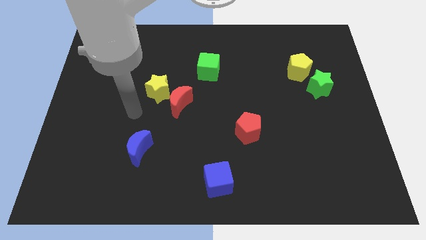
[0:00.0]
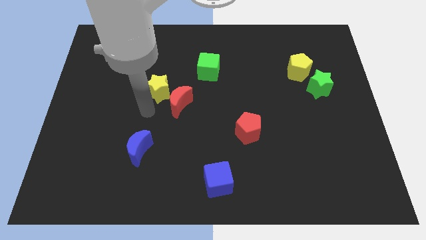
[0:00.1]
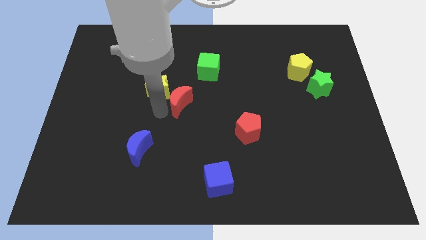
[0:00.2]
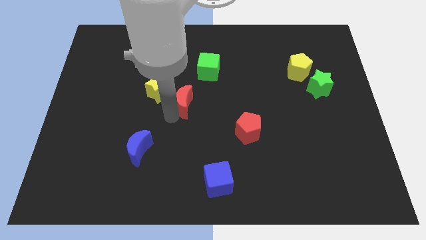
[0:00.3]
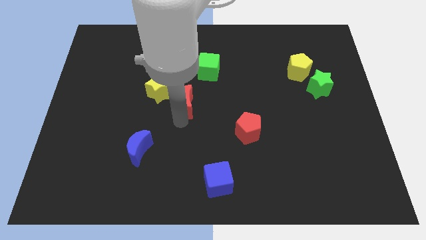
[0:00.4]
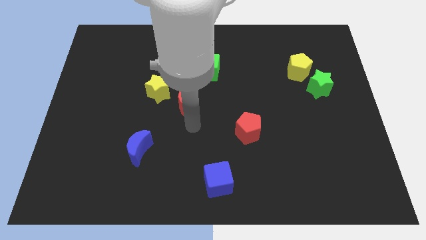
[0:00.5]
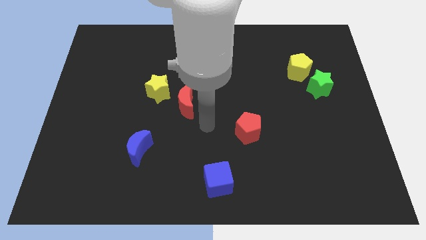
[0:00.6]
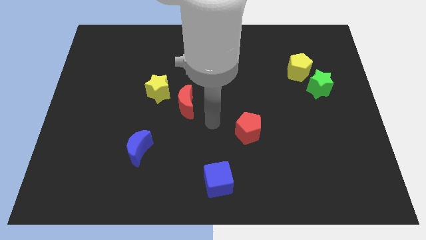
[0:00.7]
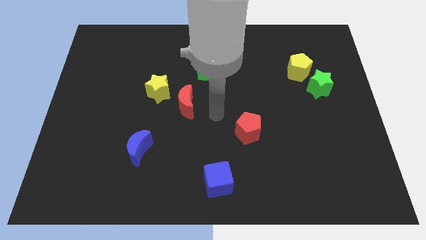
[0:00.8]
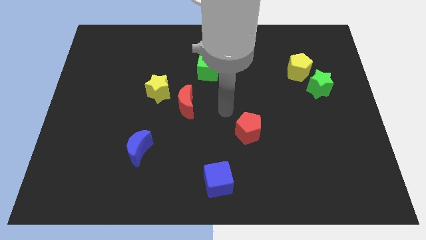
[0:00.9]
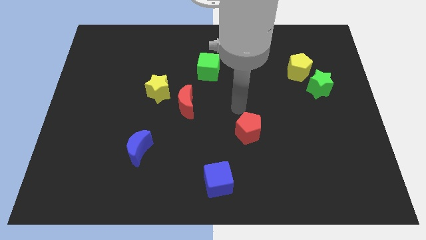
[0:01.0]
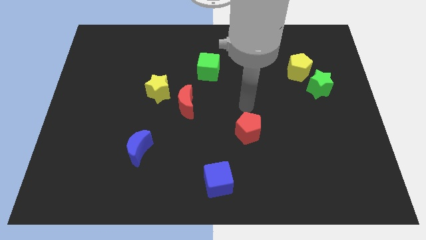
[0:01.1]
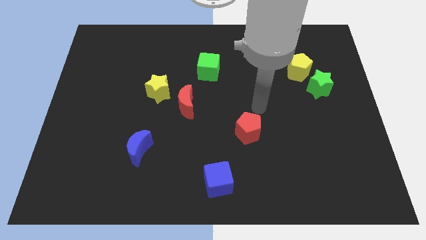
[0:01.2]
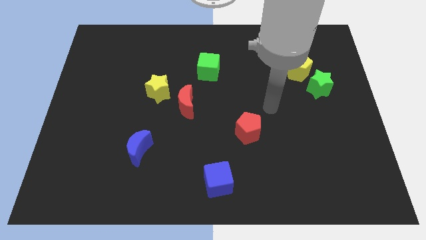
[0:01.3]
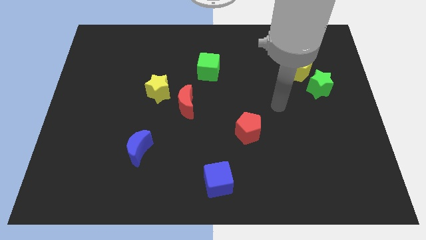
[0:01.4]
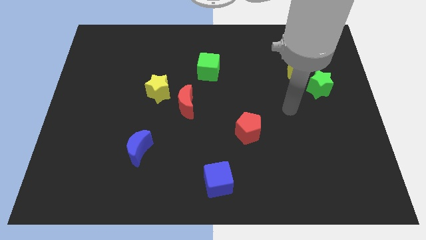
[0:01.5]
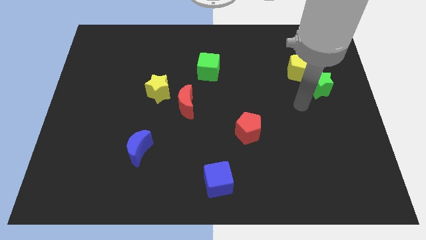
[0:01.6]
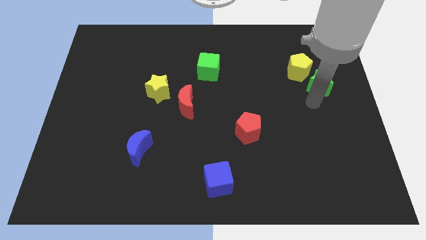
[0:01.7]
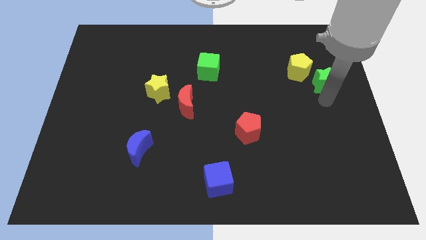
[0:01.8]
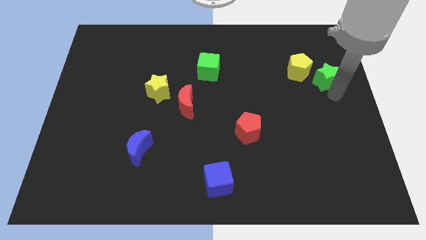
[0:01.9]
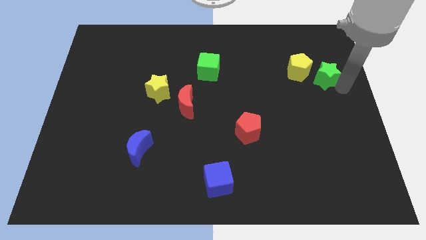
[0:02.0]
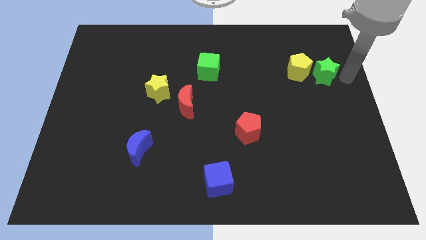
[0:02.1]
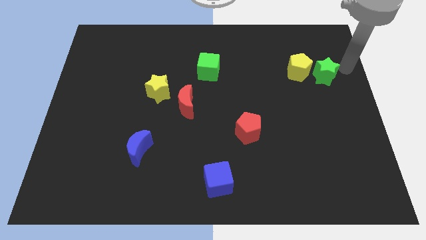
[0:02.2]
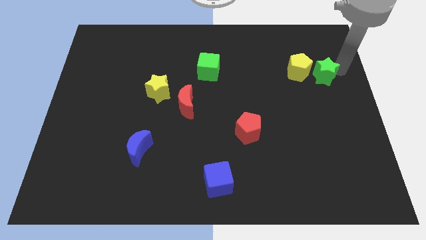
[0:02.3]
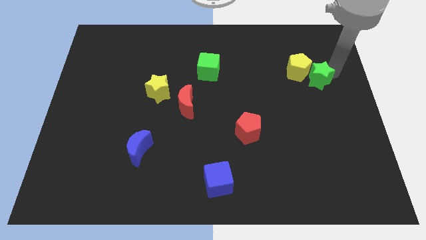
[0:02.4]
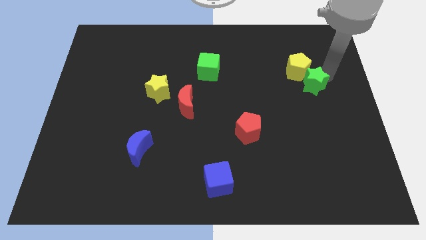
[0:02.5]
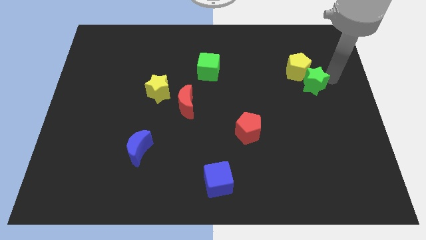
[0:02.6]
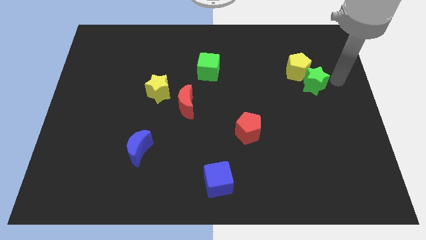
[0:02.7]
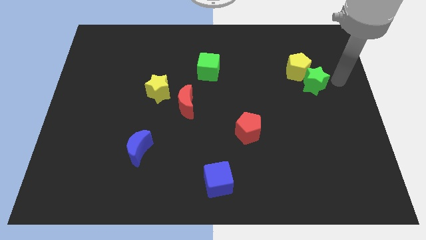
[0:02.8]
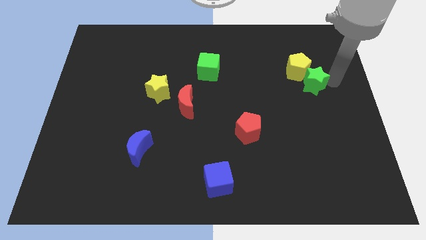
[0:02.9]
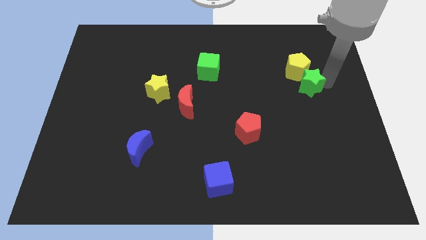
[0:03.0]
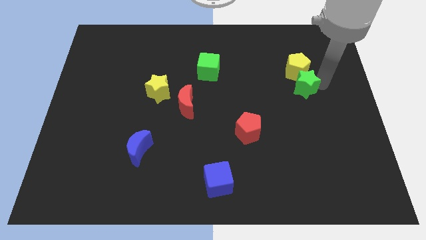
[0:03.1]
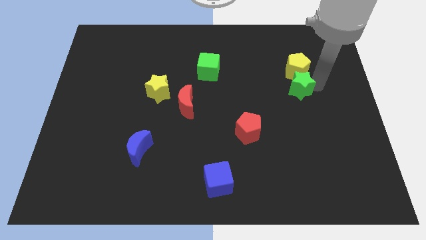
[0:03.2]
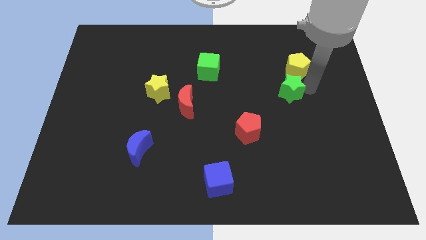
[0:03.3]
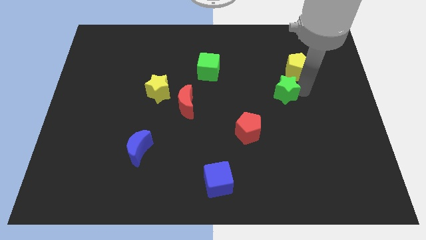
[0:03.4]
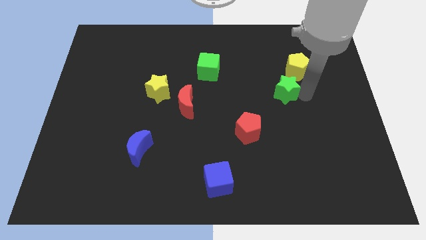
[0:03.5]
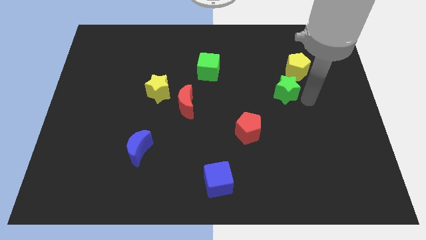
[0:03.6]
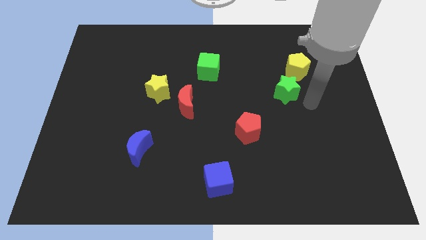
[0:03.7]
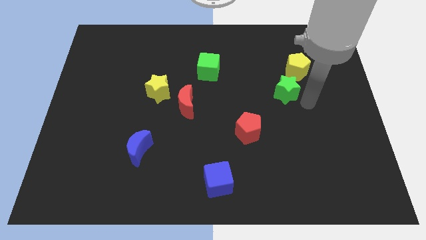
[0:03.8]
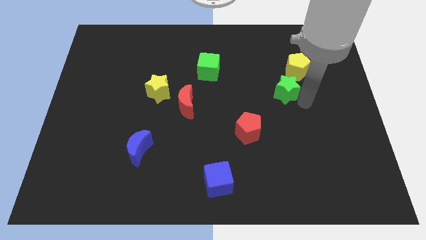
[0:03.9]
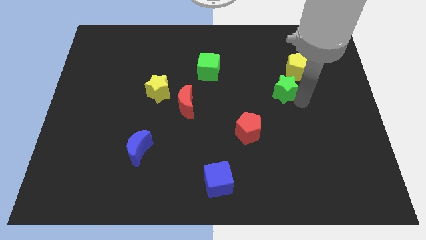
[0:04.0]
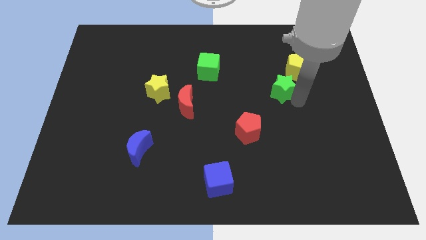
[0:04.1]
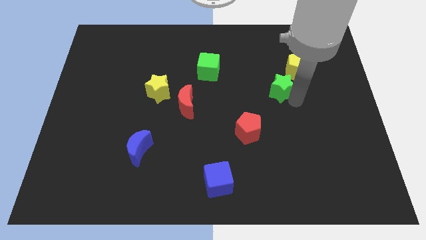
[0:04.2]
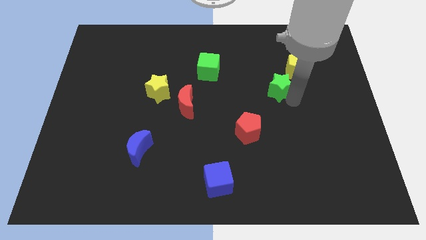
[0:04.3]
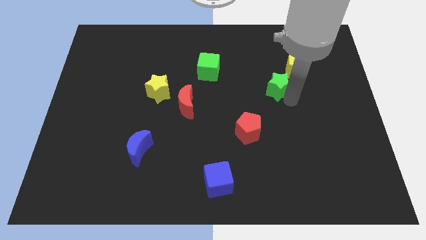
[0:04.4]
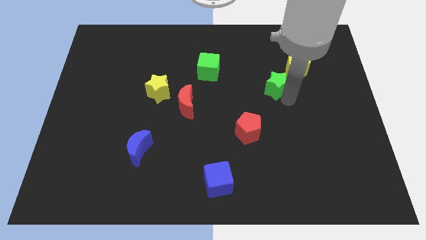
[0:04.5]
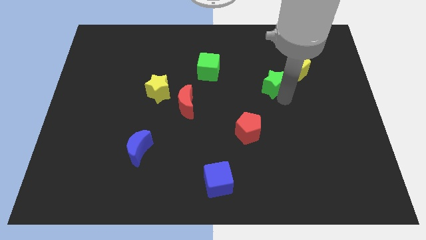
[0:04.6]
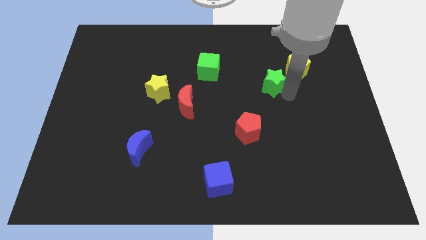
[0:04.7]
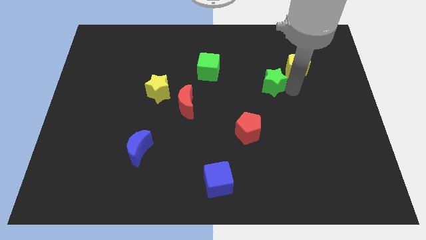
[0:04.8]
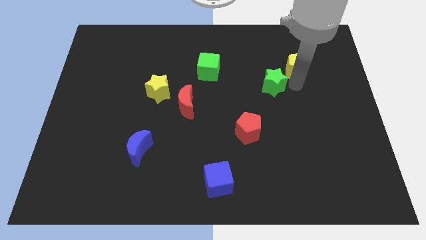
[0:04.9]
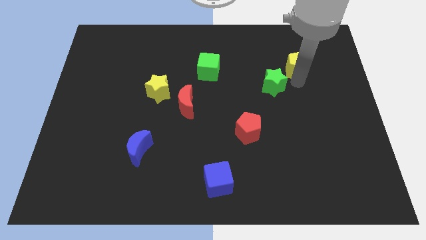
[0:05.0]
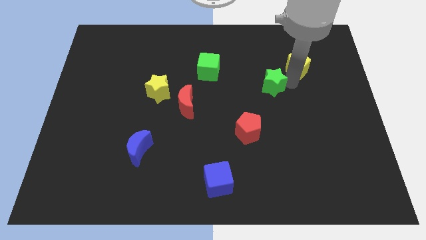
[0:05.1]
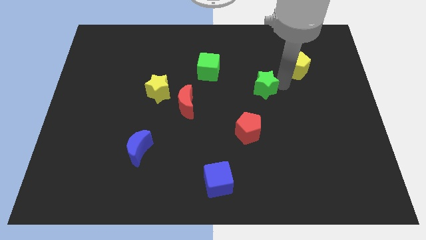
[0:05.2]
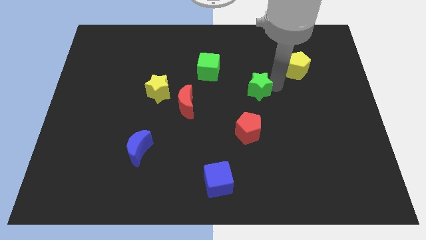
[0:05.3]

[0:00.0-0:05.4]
put the green star to the center of the board

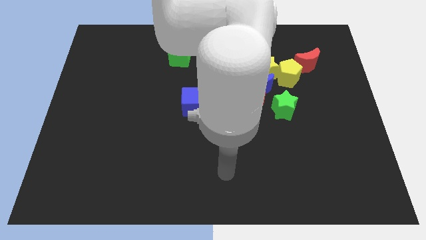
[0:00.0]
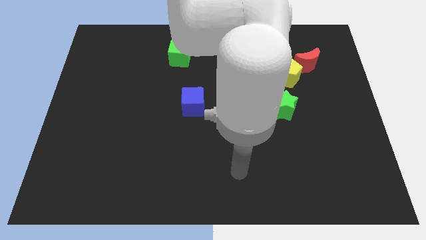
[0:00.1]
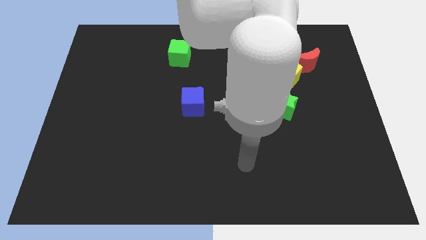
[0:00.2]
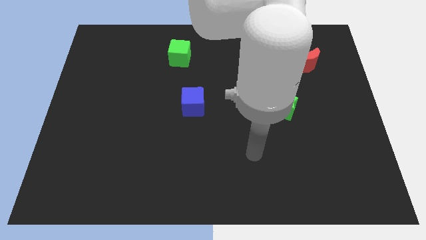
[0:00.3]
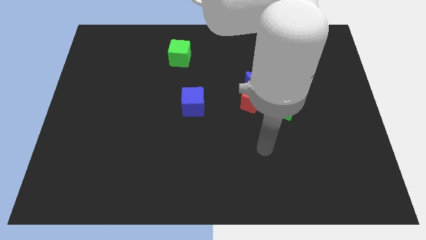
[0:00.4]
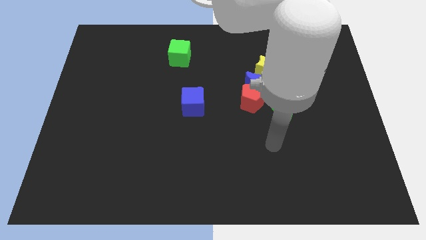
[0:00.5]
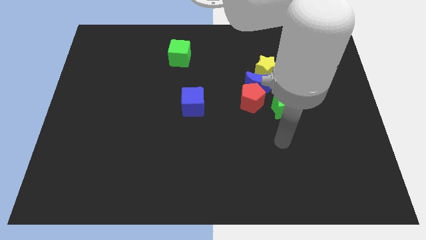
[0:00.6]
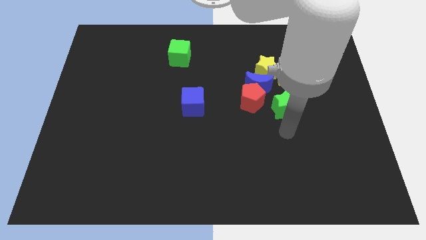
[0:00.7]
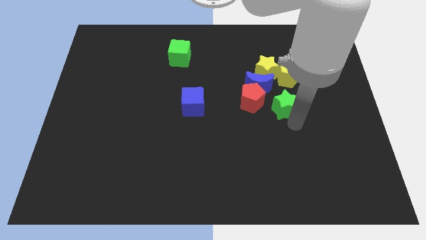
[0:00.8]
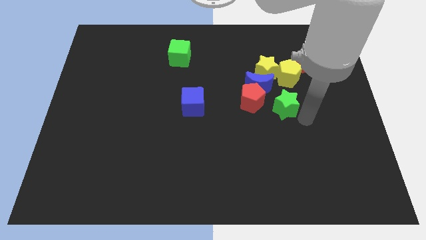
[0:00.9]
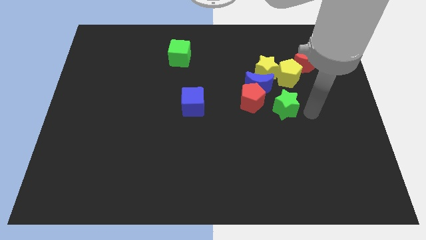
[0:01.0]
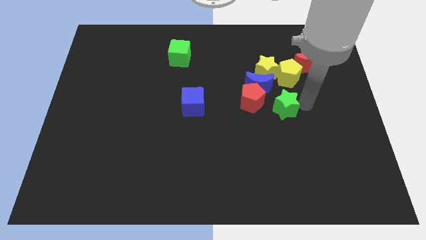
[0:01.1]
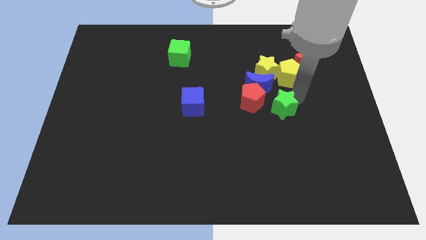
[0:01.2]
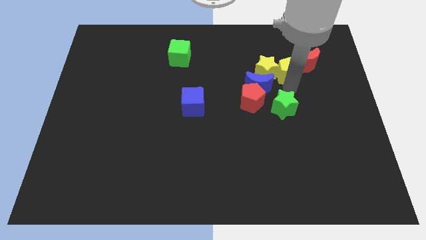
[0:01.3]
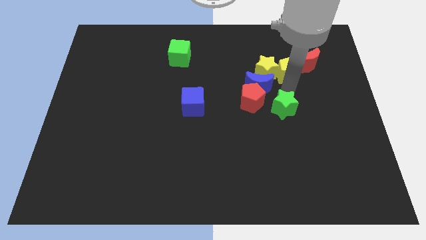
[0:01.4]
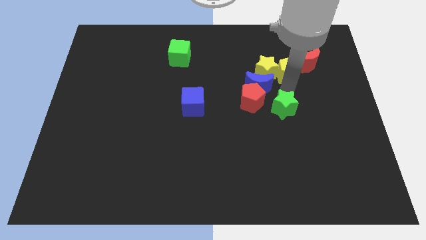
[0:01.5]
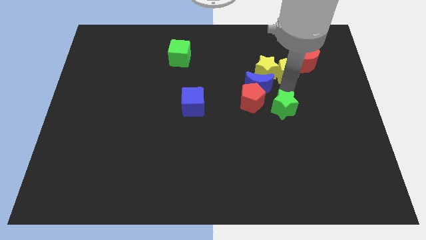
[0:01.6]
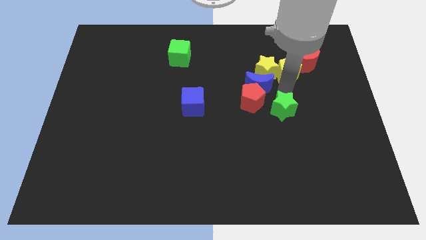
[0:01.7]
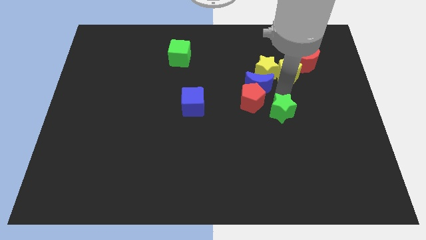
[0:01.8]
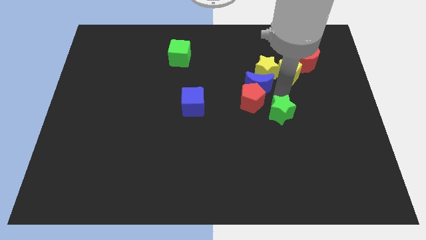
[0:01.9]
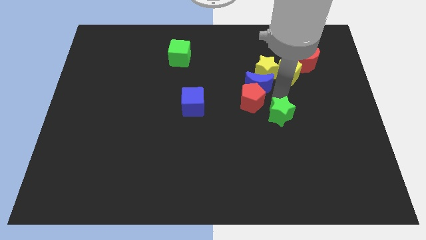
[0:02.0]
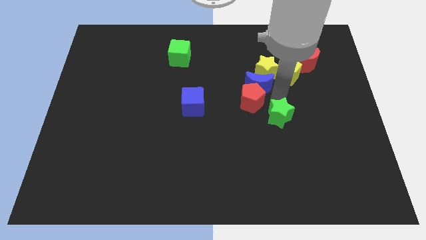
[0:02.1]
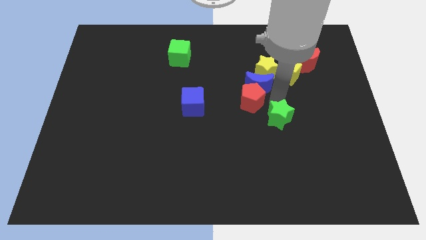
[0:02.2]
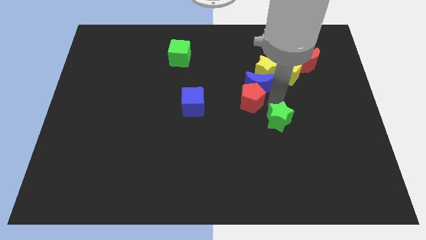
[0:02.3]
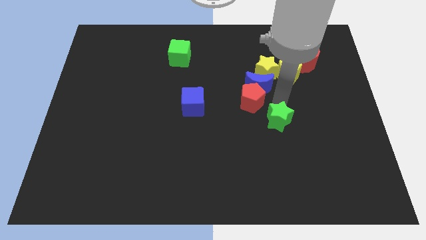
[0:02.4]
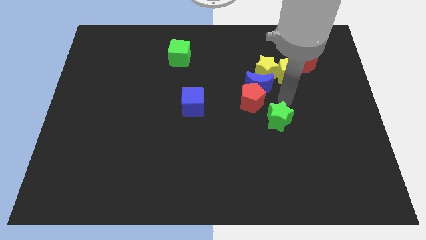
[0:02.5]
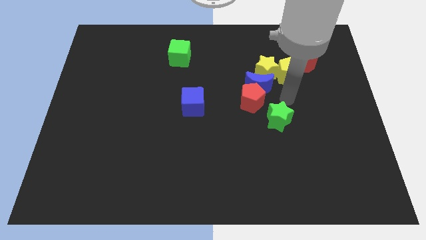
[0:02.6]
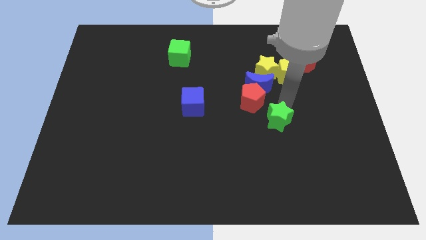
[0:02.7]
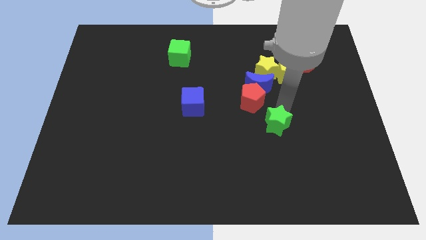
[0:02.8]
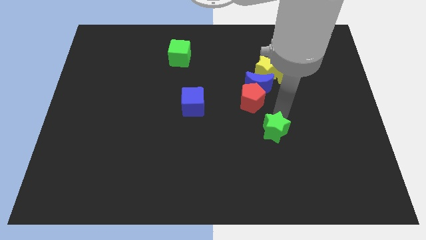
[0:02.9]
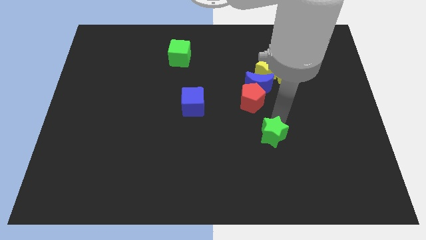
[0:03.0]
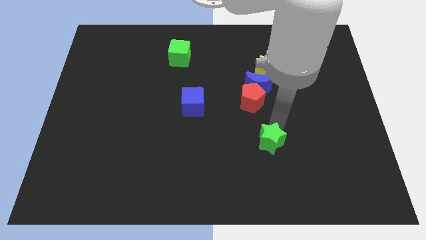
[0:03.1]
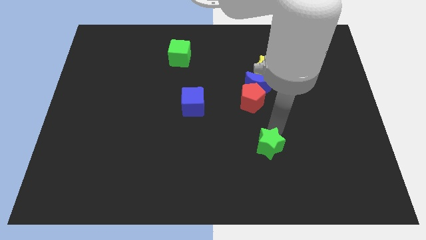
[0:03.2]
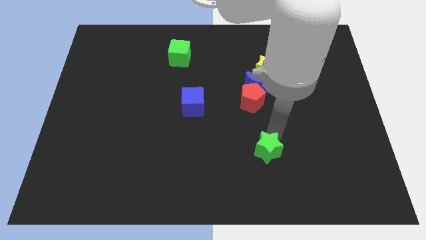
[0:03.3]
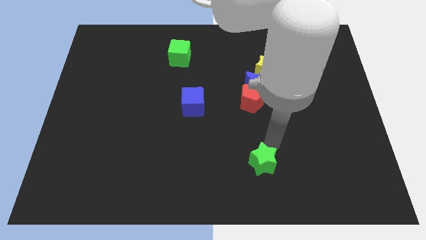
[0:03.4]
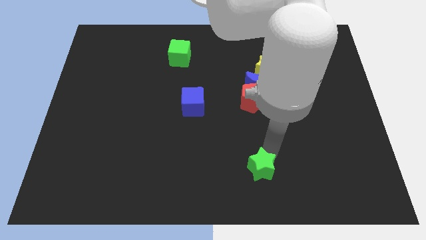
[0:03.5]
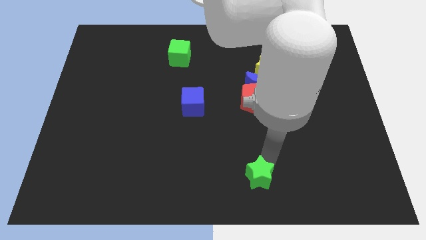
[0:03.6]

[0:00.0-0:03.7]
slide the green star to the bottom
